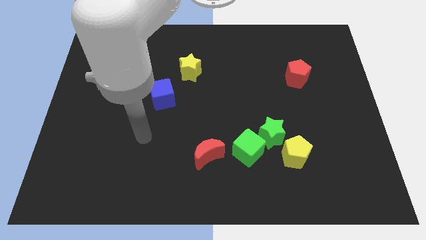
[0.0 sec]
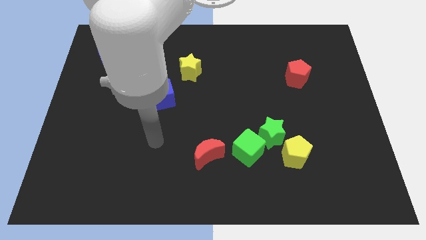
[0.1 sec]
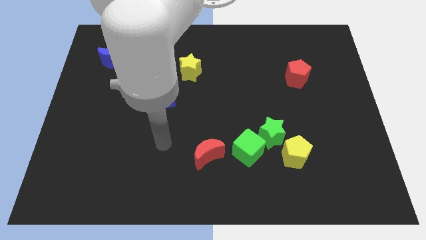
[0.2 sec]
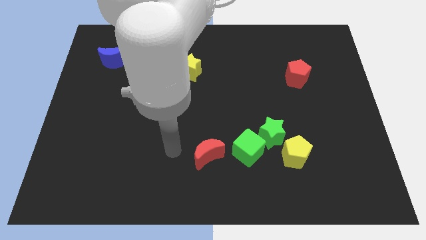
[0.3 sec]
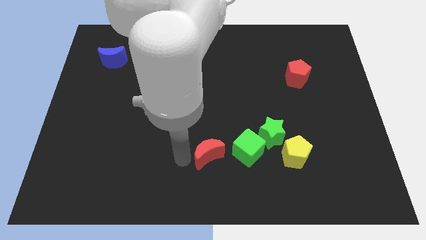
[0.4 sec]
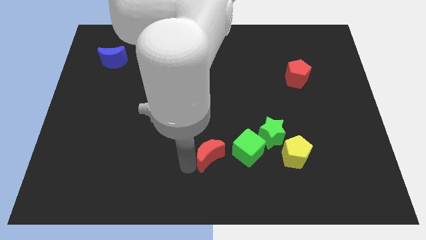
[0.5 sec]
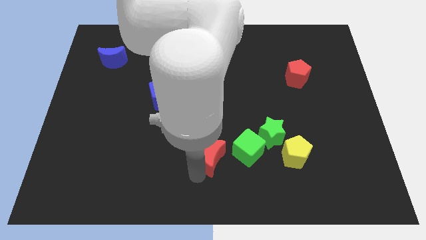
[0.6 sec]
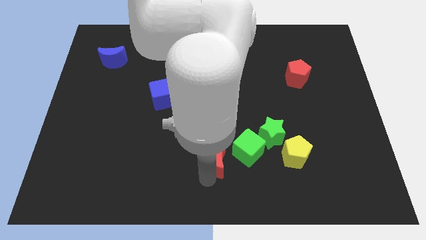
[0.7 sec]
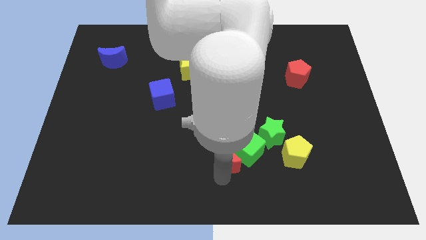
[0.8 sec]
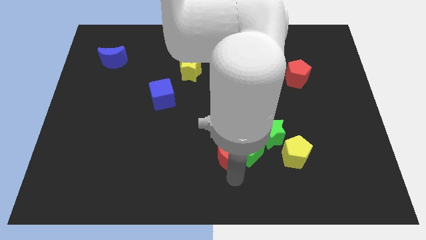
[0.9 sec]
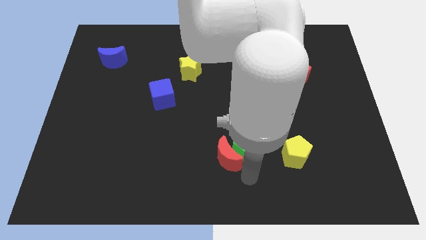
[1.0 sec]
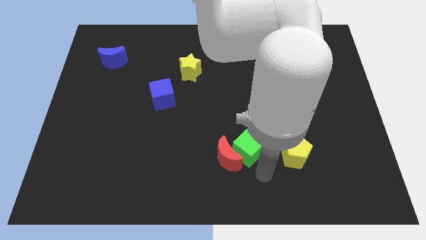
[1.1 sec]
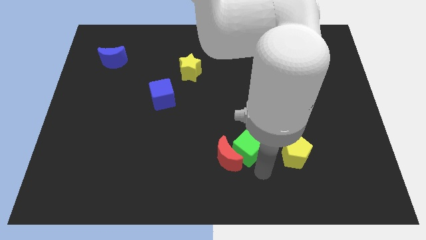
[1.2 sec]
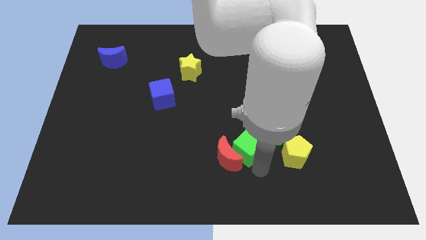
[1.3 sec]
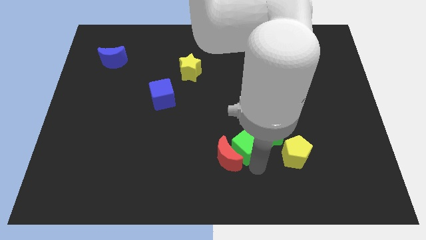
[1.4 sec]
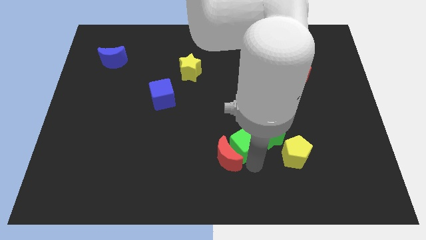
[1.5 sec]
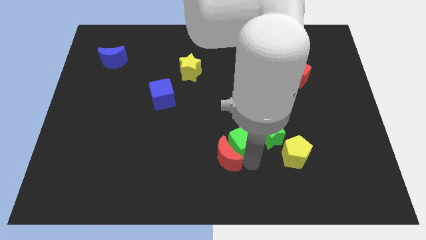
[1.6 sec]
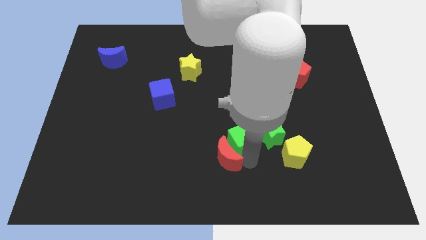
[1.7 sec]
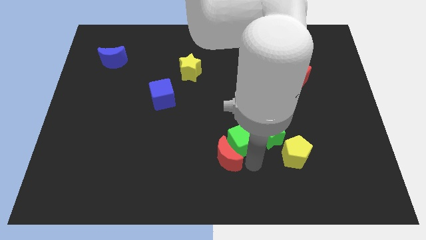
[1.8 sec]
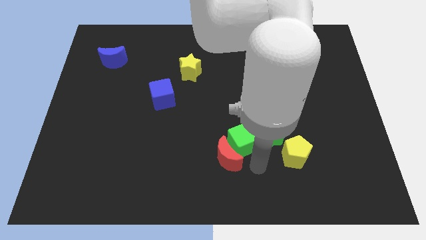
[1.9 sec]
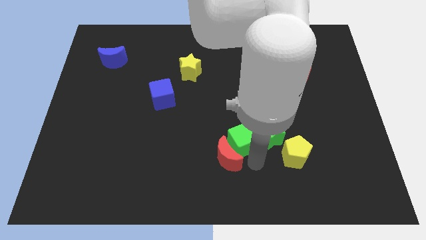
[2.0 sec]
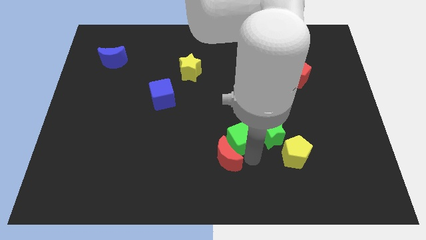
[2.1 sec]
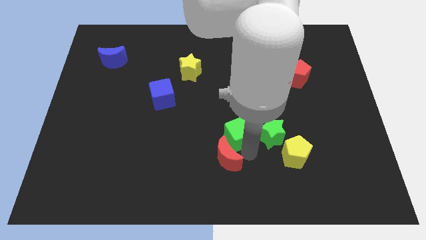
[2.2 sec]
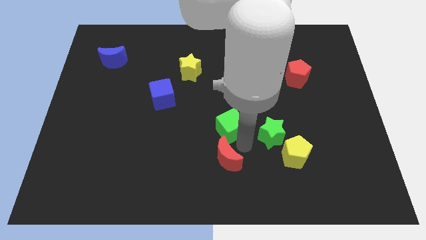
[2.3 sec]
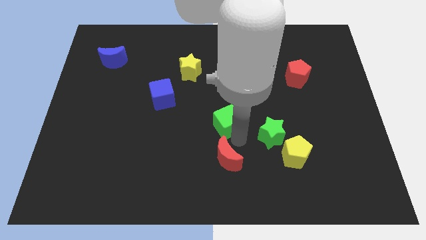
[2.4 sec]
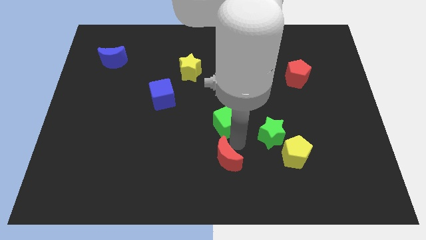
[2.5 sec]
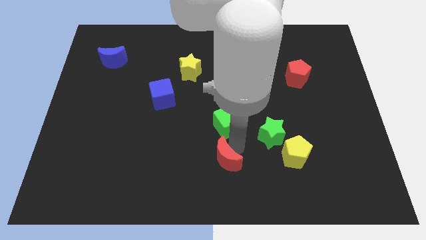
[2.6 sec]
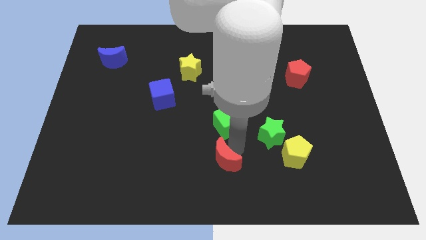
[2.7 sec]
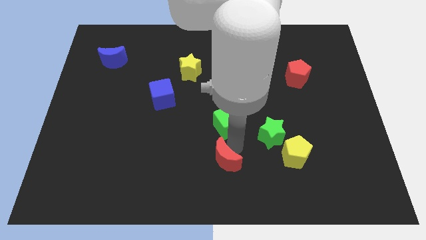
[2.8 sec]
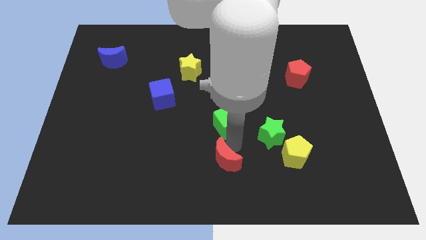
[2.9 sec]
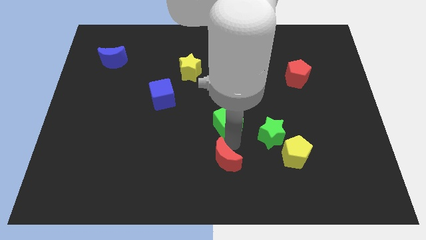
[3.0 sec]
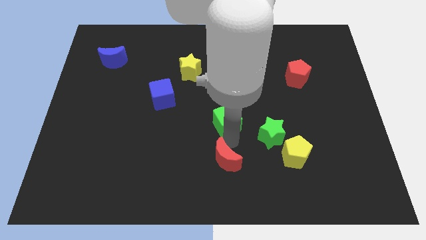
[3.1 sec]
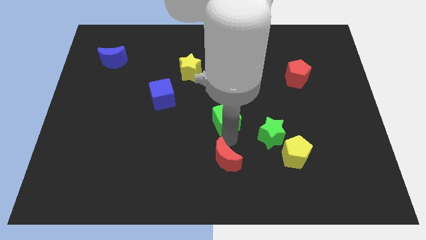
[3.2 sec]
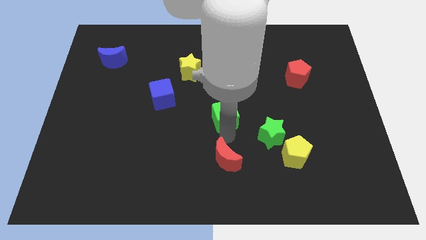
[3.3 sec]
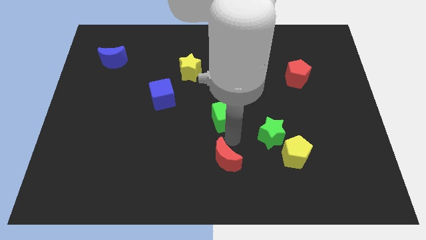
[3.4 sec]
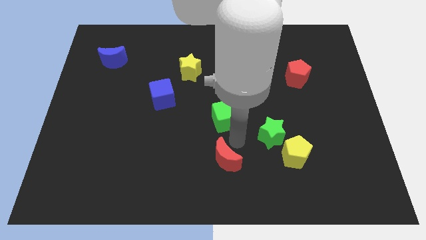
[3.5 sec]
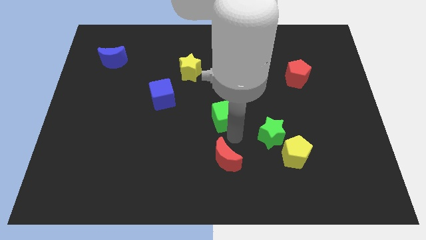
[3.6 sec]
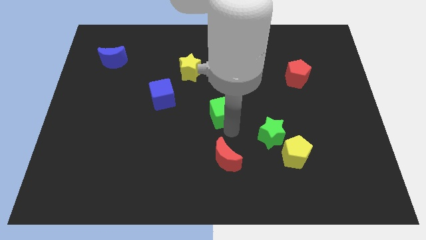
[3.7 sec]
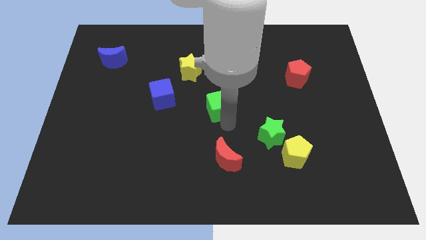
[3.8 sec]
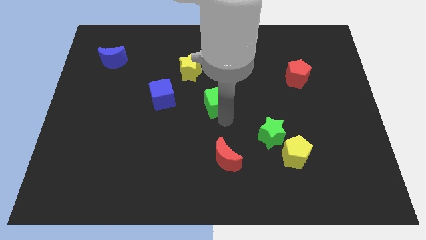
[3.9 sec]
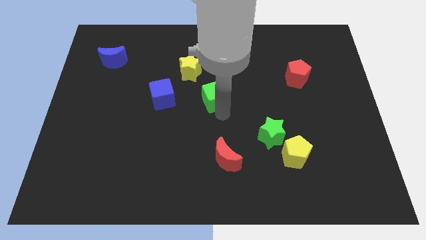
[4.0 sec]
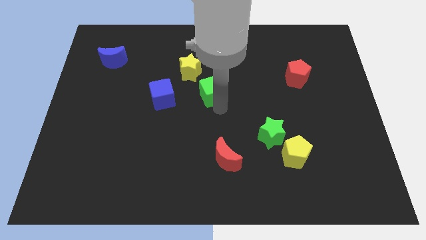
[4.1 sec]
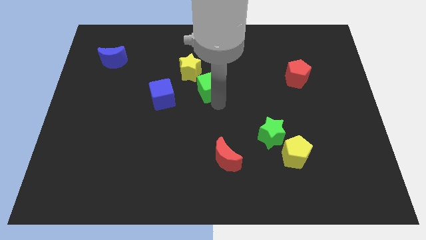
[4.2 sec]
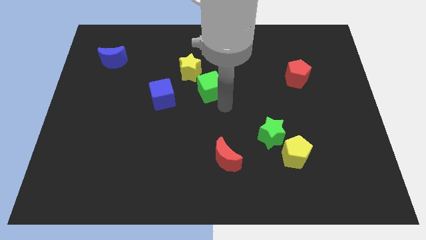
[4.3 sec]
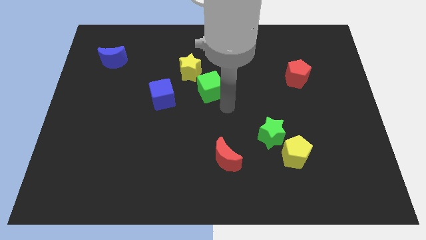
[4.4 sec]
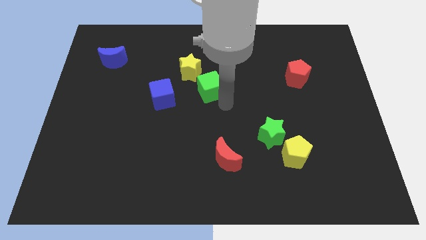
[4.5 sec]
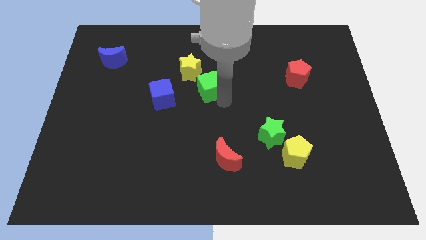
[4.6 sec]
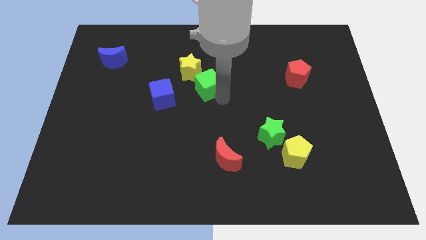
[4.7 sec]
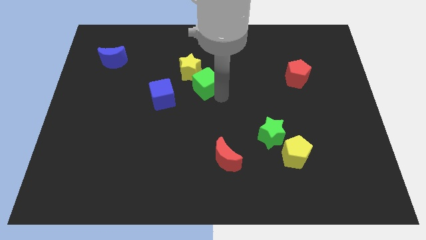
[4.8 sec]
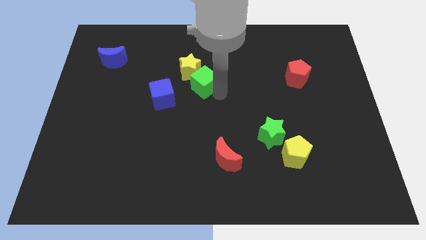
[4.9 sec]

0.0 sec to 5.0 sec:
slide the green cube close to the yellow star

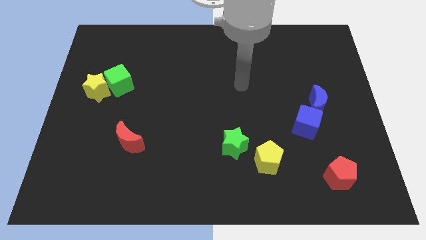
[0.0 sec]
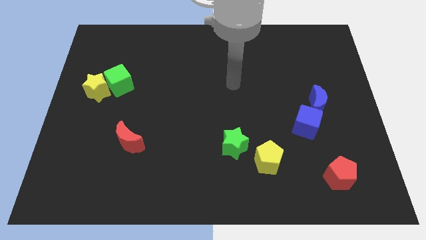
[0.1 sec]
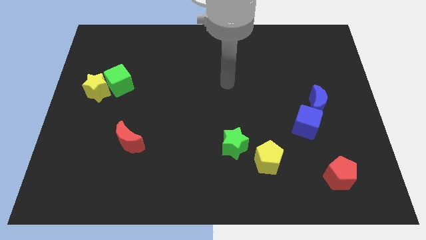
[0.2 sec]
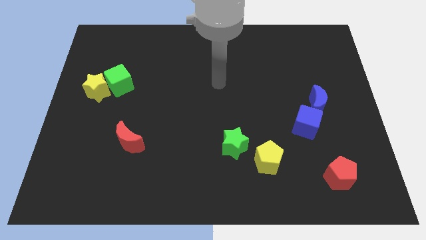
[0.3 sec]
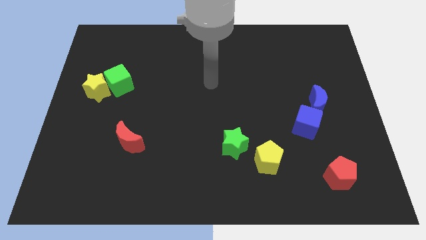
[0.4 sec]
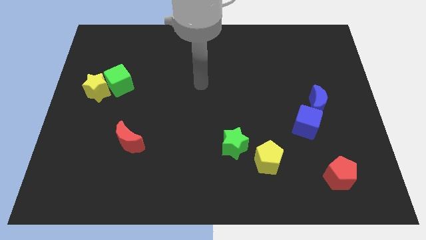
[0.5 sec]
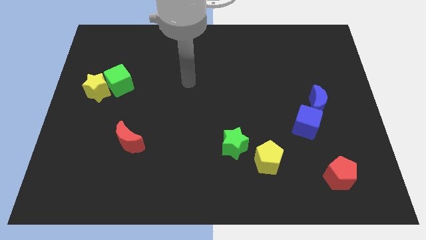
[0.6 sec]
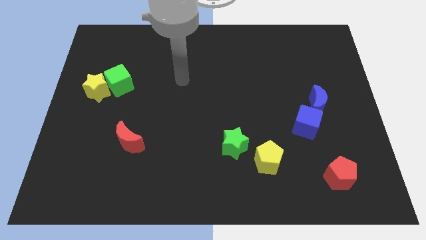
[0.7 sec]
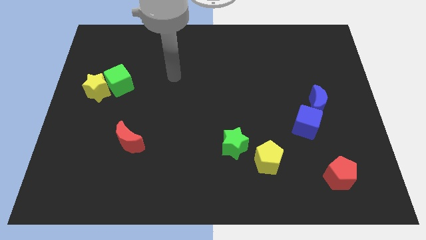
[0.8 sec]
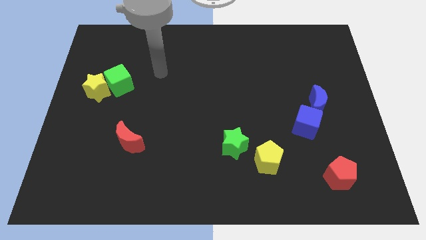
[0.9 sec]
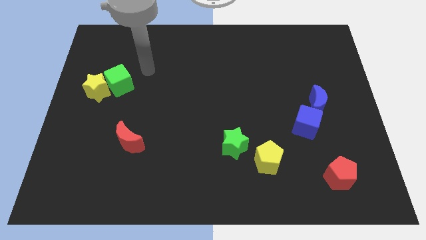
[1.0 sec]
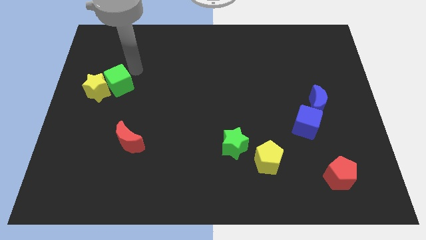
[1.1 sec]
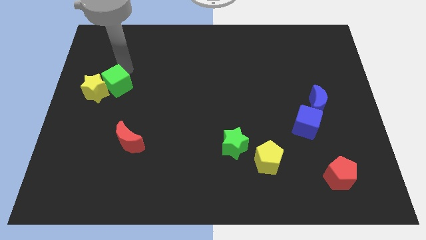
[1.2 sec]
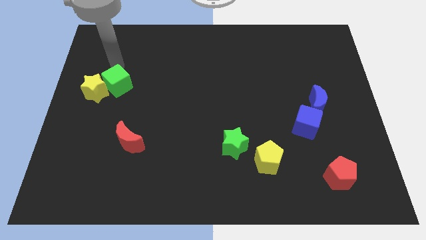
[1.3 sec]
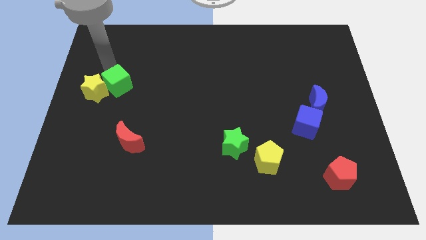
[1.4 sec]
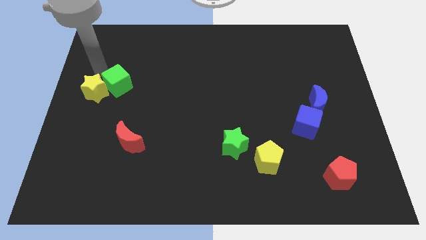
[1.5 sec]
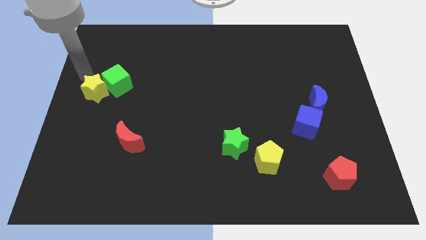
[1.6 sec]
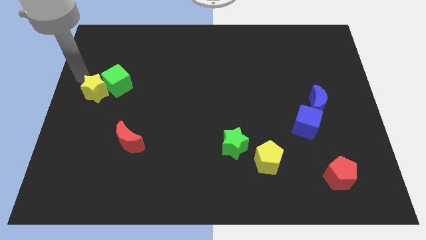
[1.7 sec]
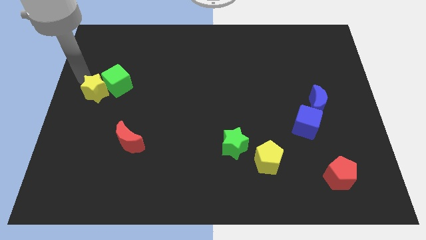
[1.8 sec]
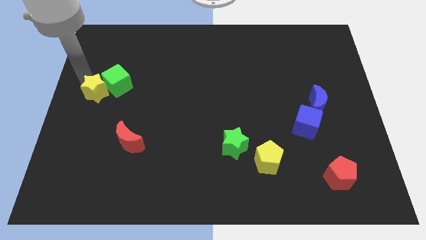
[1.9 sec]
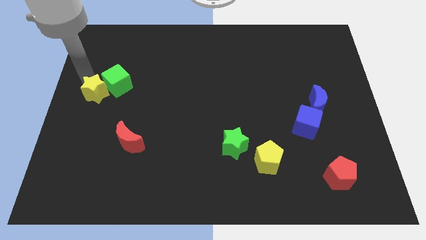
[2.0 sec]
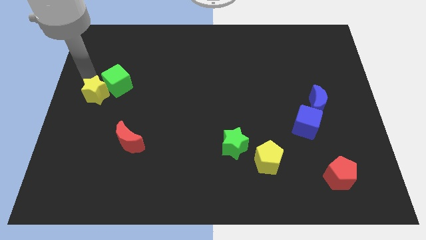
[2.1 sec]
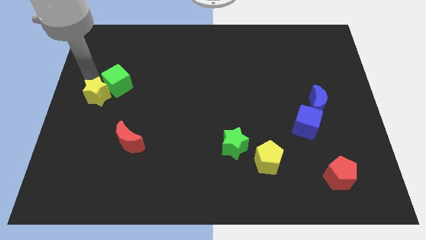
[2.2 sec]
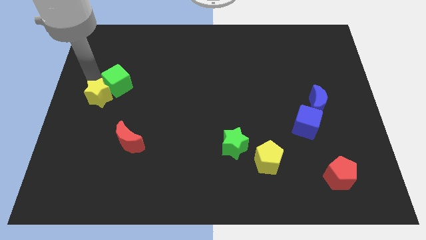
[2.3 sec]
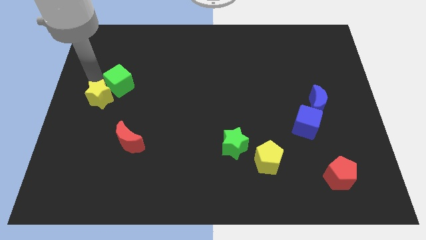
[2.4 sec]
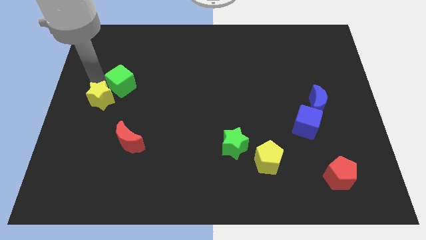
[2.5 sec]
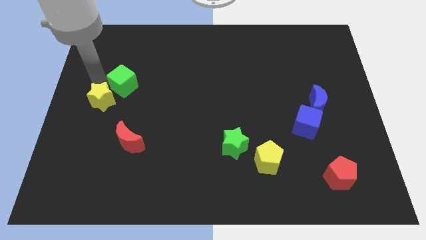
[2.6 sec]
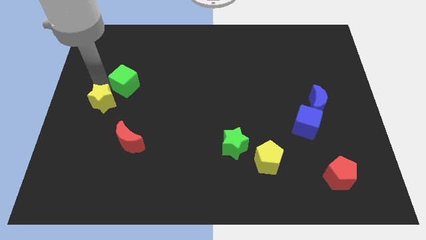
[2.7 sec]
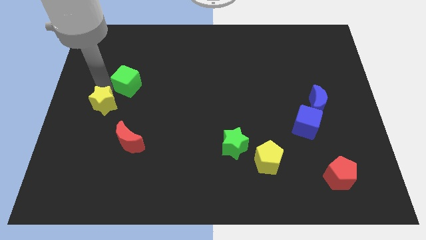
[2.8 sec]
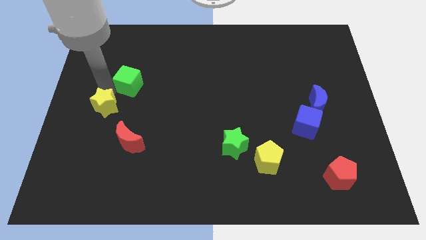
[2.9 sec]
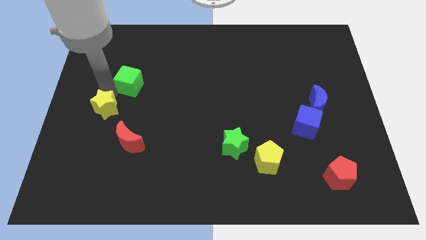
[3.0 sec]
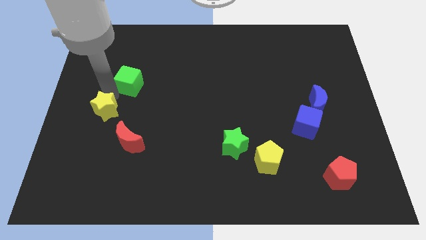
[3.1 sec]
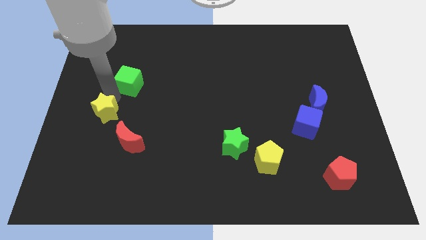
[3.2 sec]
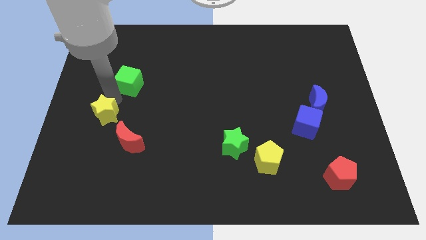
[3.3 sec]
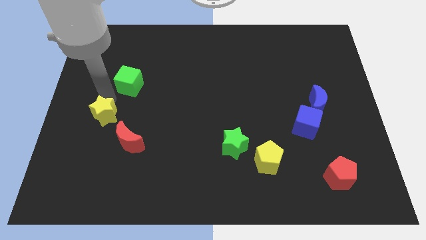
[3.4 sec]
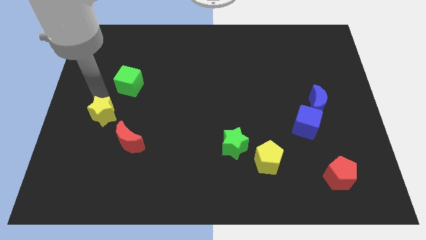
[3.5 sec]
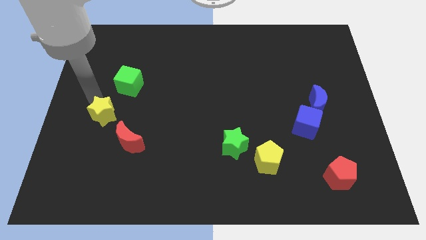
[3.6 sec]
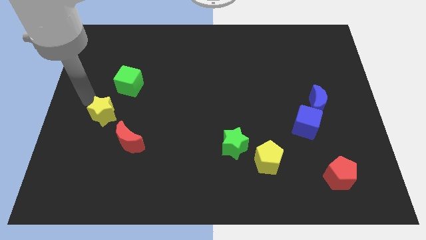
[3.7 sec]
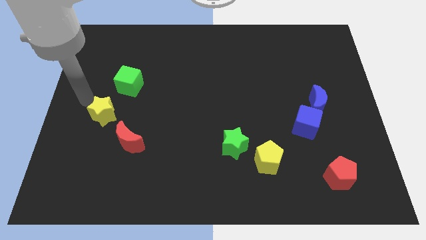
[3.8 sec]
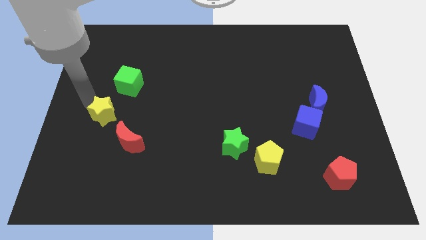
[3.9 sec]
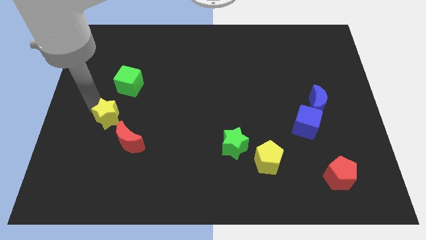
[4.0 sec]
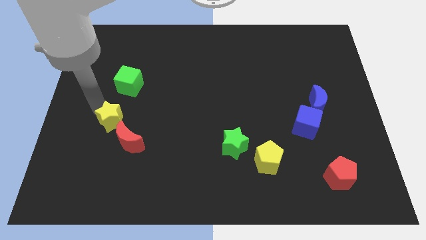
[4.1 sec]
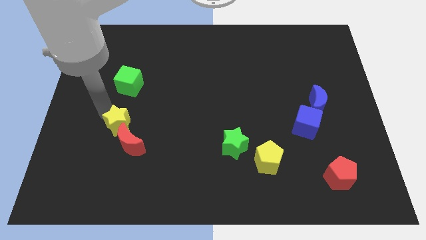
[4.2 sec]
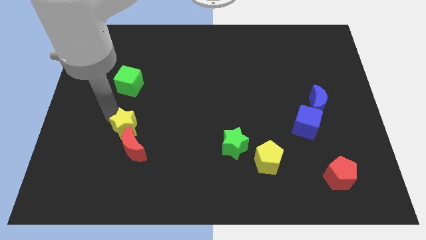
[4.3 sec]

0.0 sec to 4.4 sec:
put the yellow star close to the red moon
